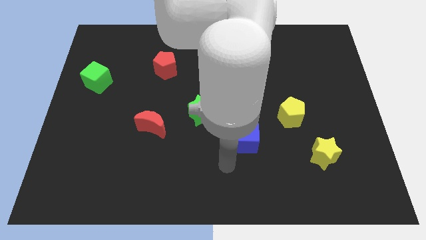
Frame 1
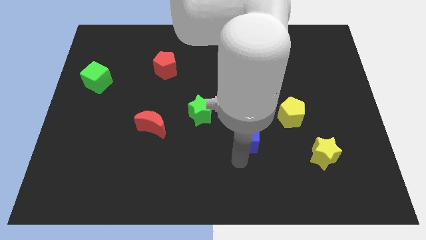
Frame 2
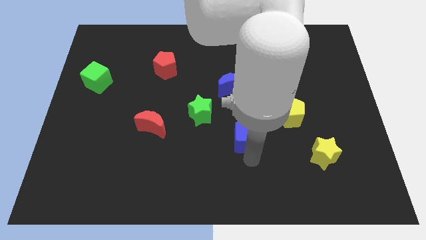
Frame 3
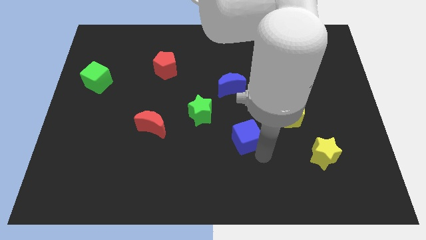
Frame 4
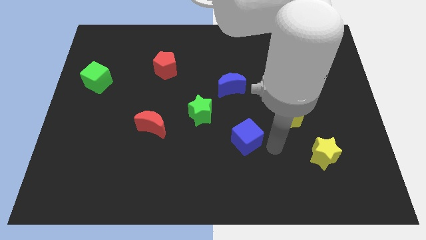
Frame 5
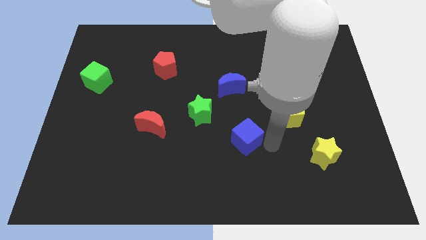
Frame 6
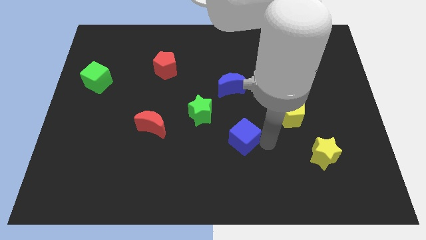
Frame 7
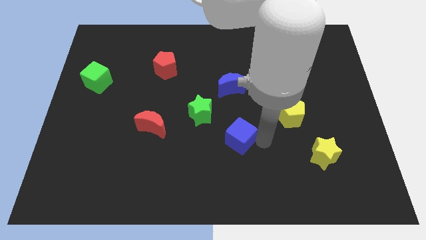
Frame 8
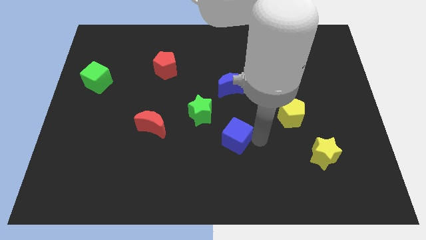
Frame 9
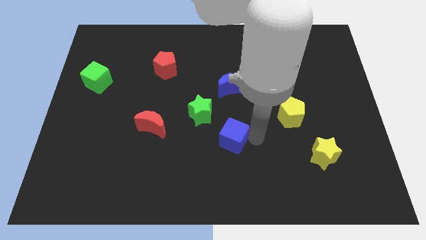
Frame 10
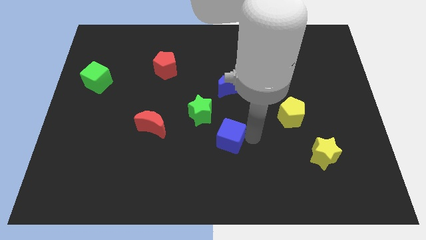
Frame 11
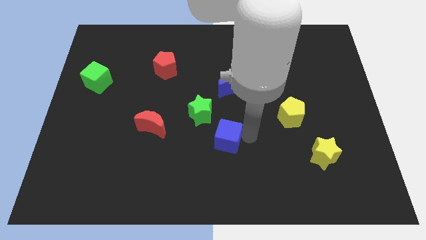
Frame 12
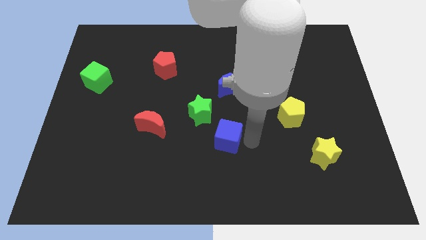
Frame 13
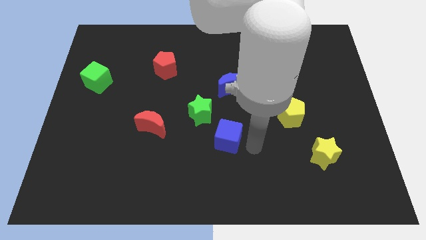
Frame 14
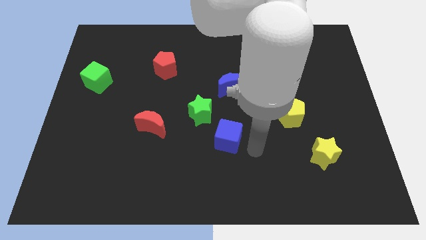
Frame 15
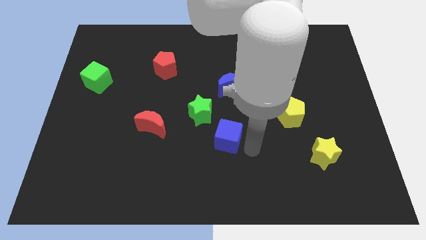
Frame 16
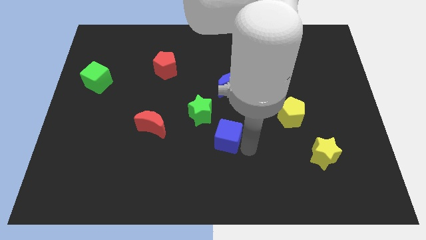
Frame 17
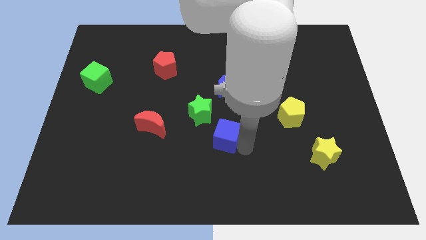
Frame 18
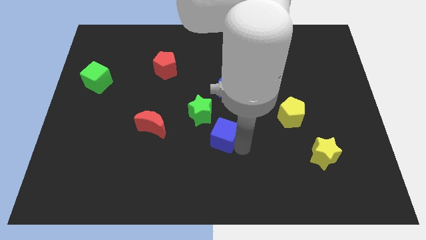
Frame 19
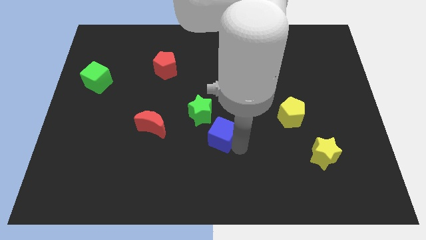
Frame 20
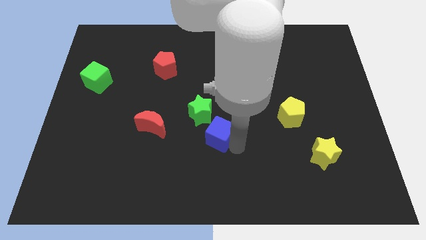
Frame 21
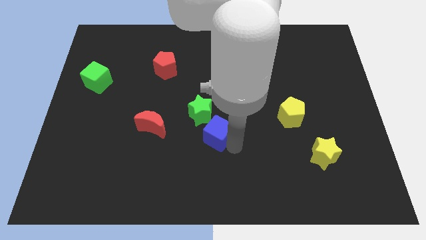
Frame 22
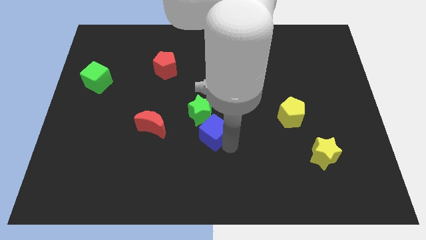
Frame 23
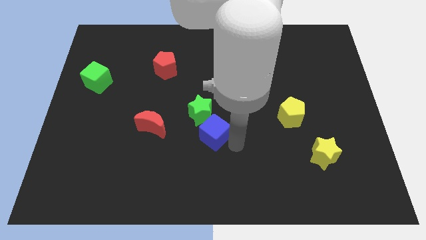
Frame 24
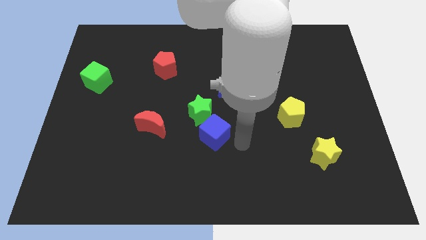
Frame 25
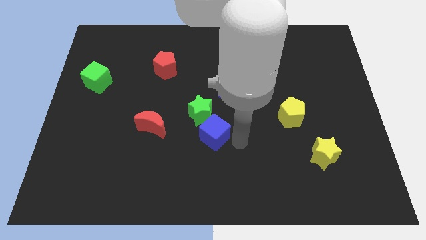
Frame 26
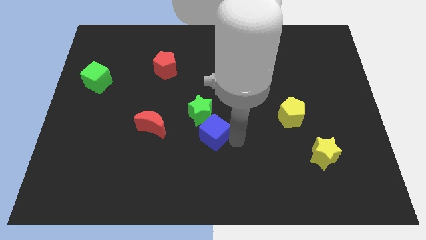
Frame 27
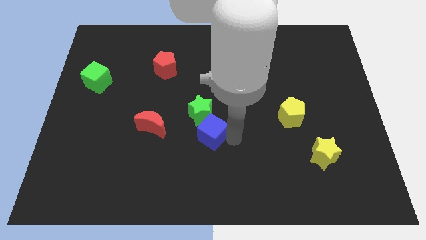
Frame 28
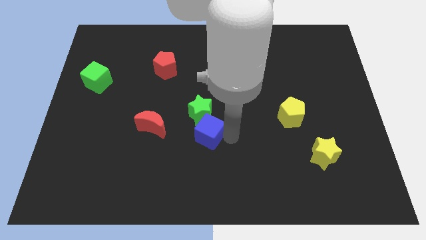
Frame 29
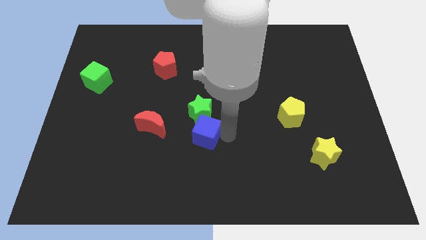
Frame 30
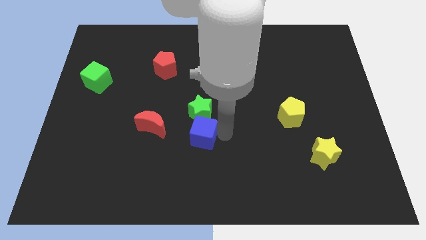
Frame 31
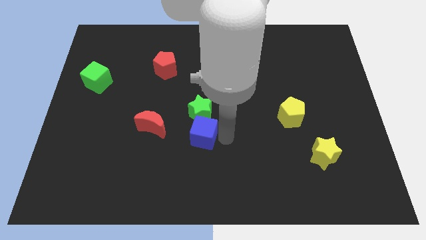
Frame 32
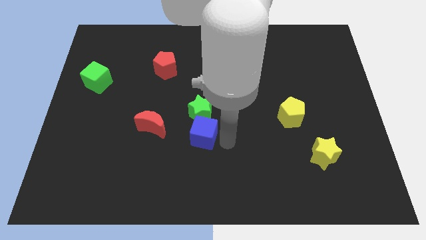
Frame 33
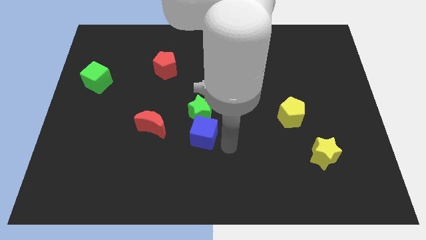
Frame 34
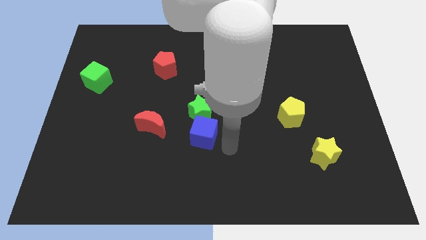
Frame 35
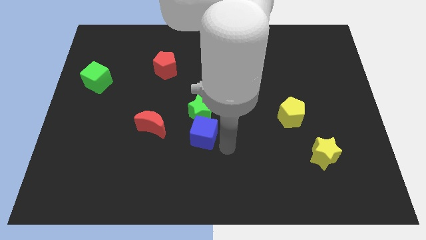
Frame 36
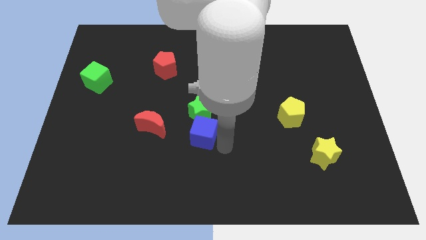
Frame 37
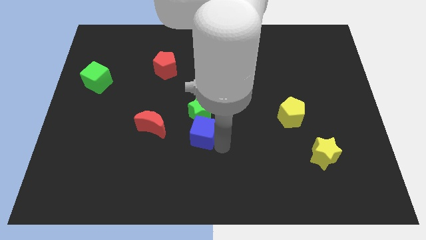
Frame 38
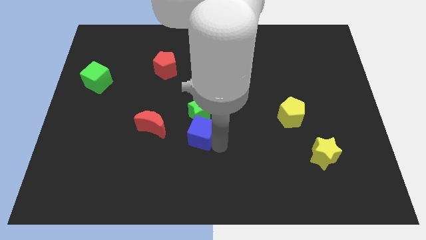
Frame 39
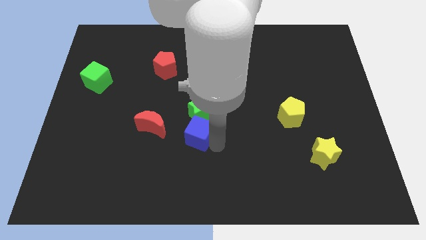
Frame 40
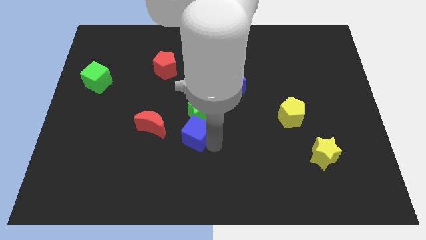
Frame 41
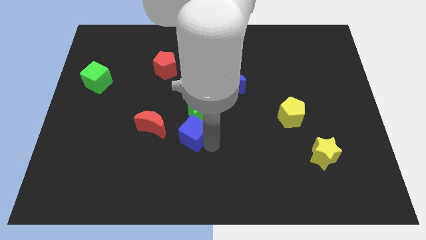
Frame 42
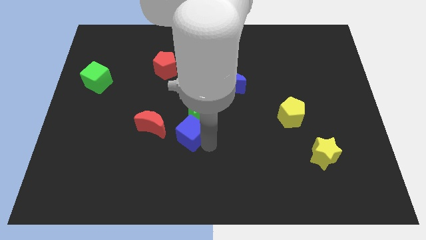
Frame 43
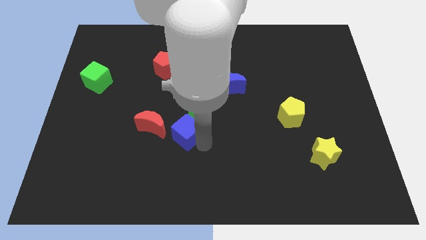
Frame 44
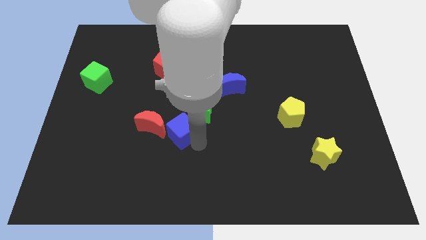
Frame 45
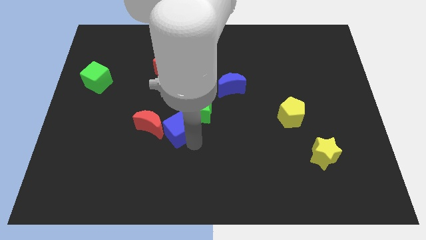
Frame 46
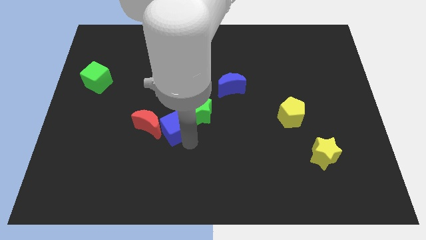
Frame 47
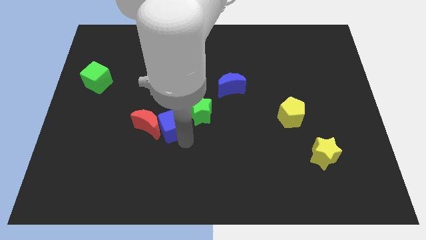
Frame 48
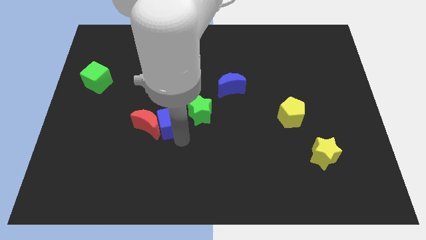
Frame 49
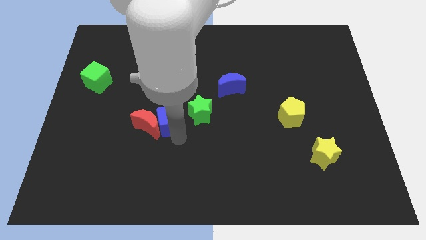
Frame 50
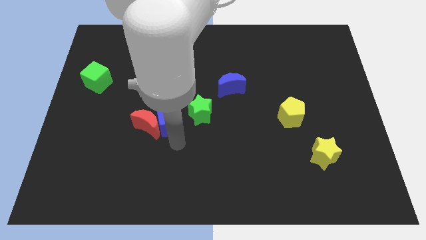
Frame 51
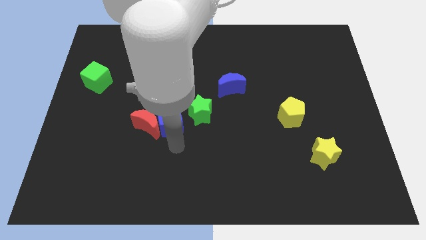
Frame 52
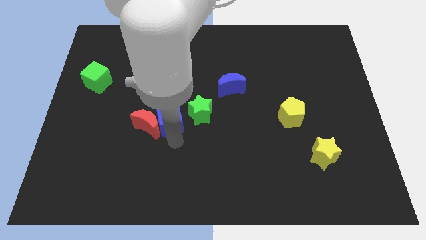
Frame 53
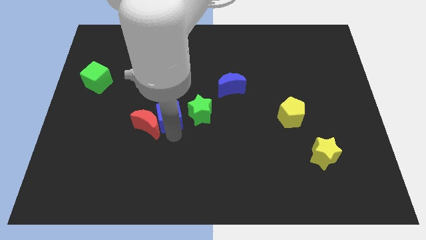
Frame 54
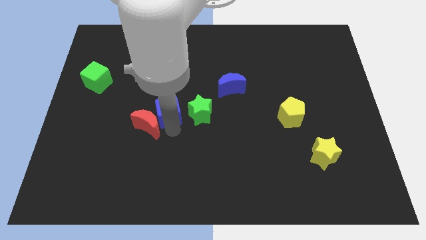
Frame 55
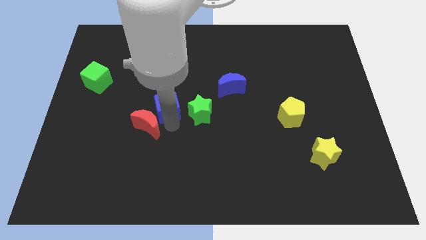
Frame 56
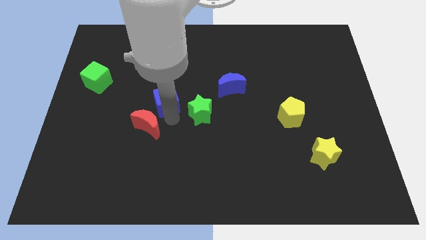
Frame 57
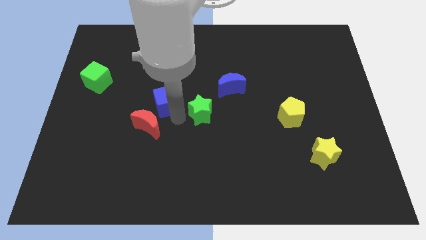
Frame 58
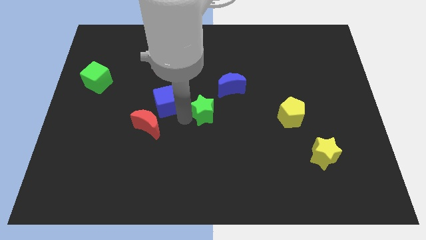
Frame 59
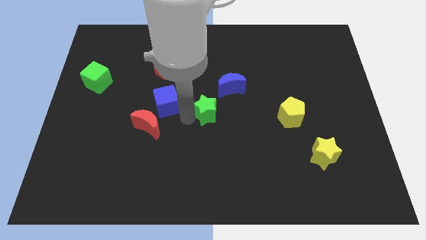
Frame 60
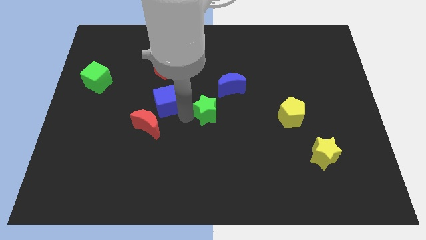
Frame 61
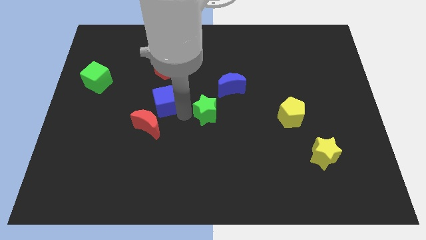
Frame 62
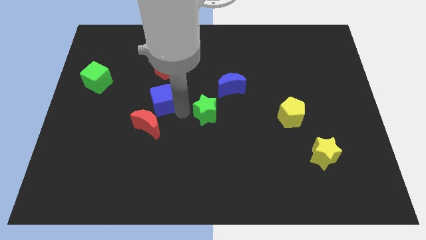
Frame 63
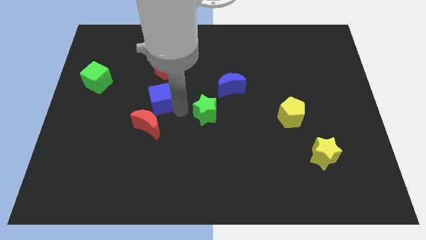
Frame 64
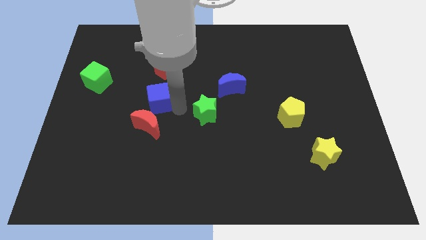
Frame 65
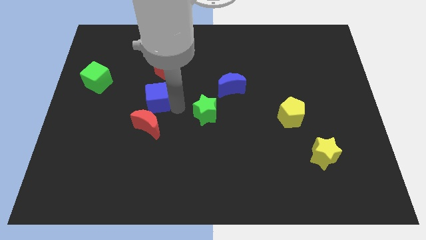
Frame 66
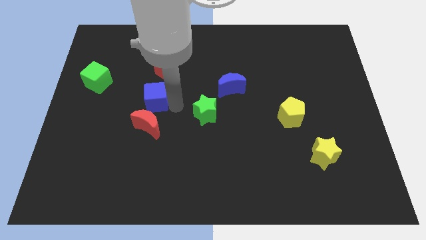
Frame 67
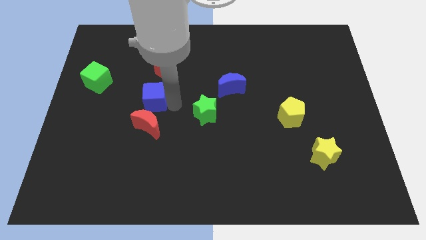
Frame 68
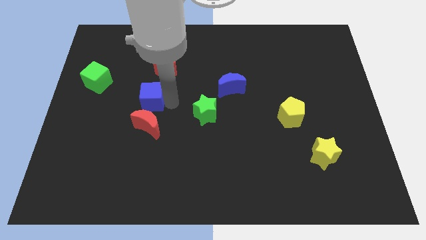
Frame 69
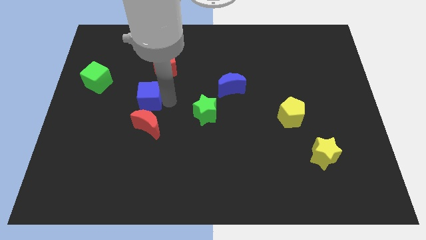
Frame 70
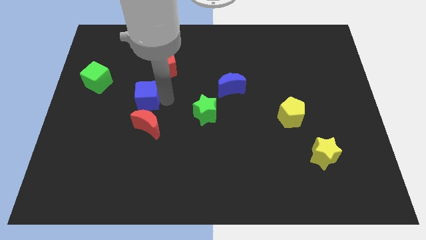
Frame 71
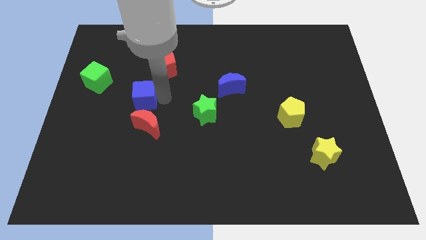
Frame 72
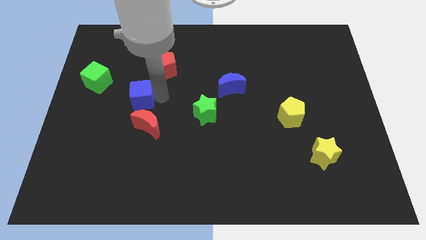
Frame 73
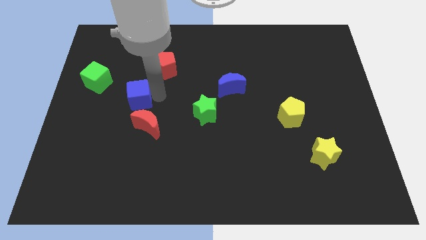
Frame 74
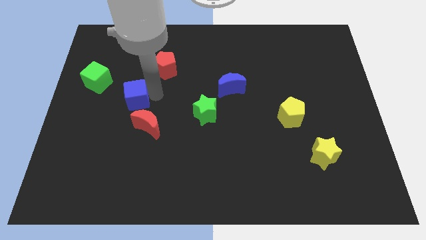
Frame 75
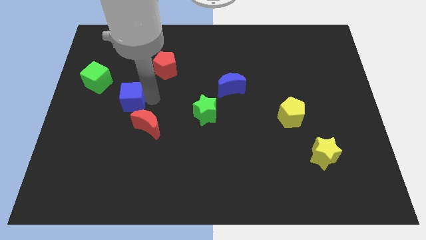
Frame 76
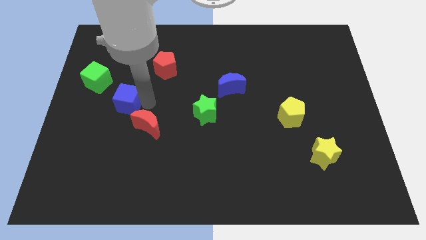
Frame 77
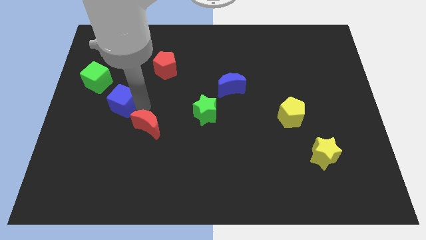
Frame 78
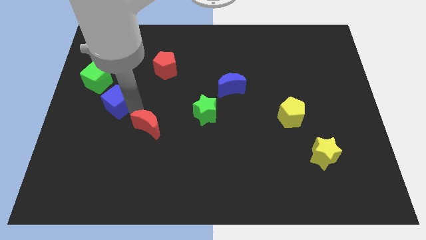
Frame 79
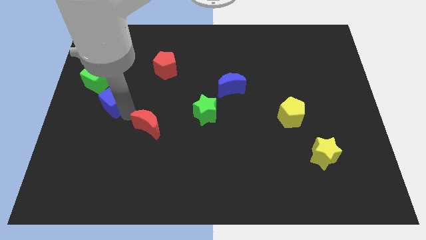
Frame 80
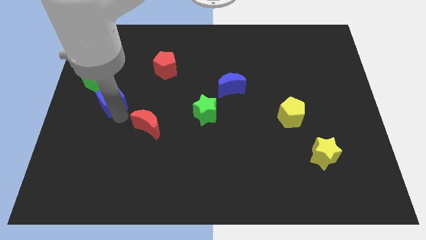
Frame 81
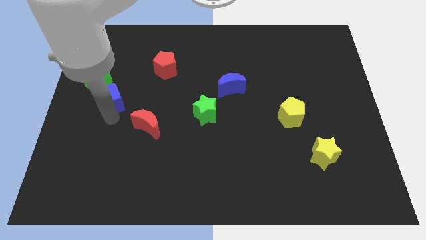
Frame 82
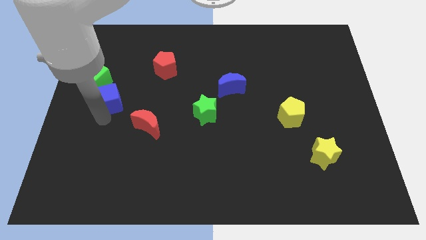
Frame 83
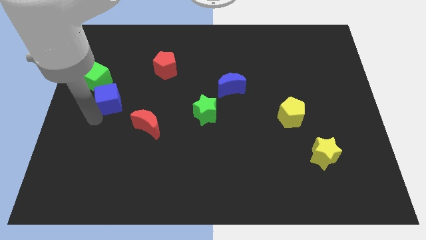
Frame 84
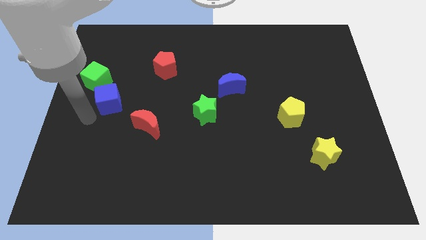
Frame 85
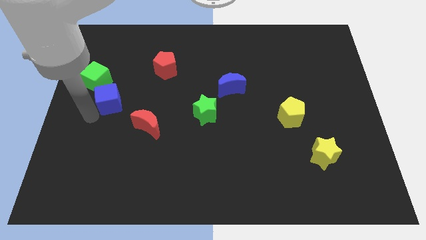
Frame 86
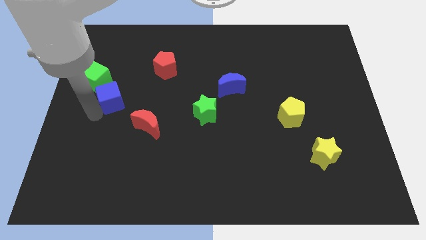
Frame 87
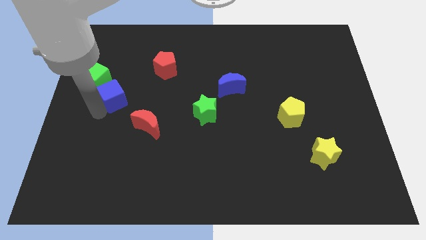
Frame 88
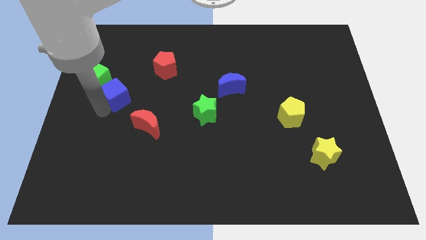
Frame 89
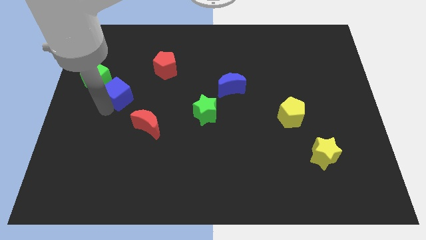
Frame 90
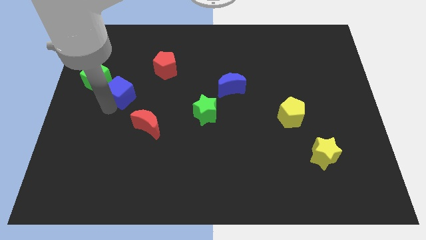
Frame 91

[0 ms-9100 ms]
push the blue cube right of the green cube
